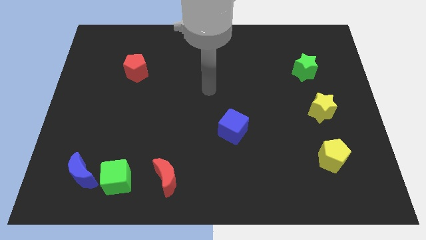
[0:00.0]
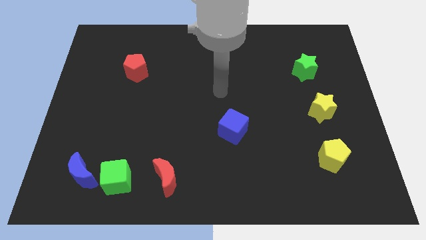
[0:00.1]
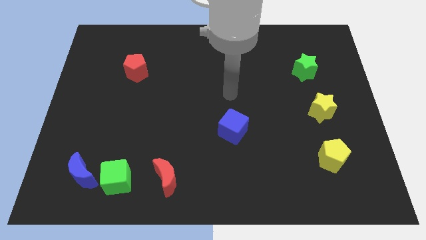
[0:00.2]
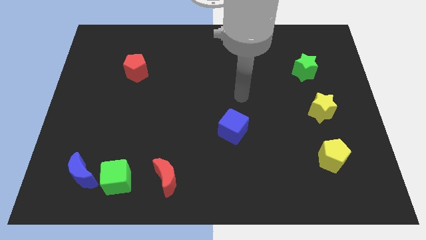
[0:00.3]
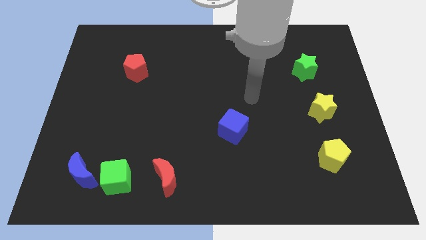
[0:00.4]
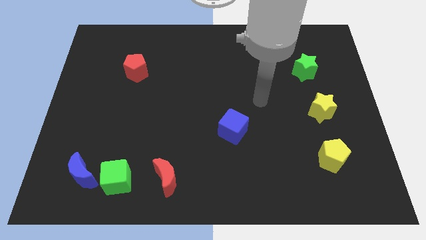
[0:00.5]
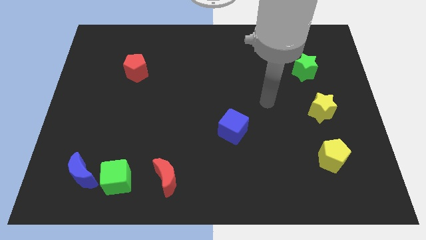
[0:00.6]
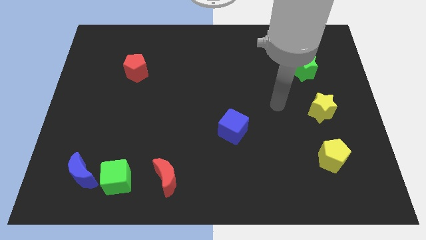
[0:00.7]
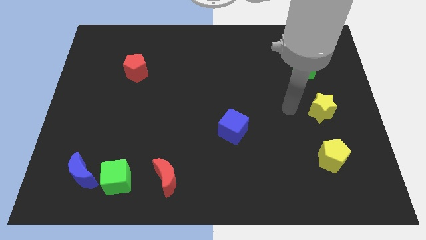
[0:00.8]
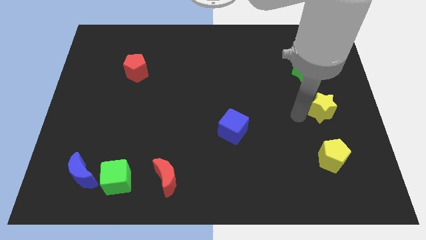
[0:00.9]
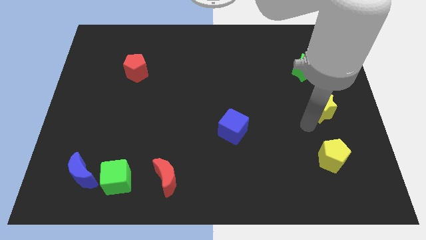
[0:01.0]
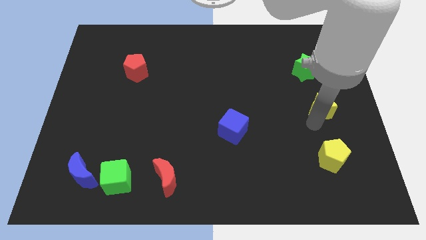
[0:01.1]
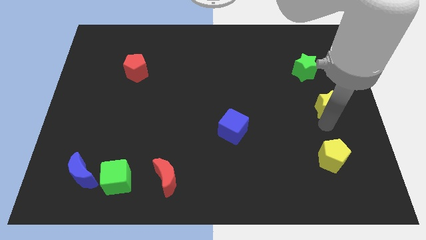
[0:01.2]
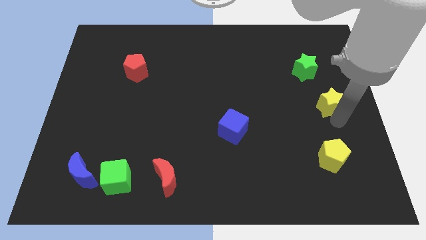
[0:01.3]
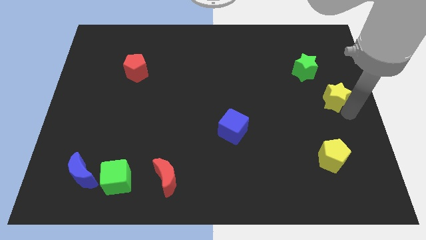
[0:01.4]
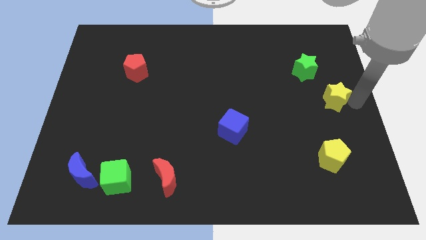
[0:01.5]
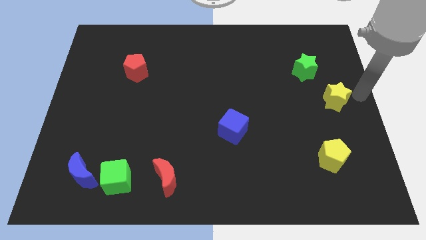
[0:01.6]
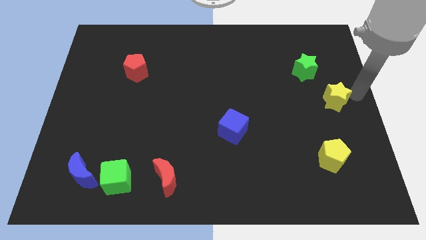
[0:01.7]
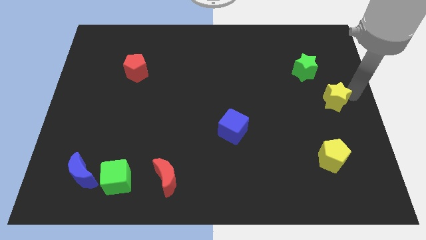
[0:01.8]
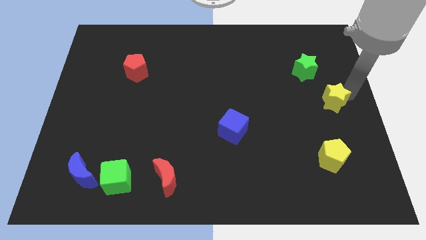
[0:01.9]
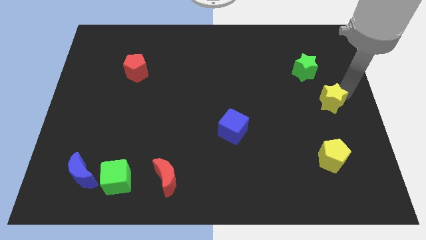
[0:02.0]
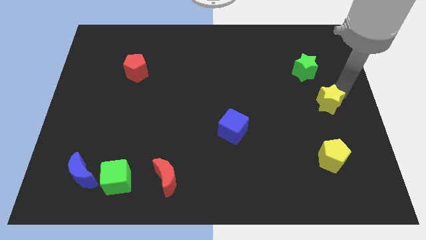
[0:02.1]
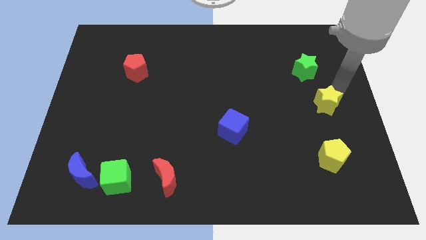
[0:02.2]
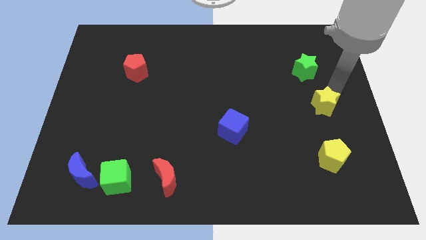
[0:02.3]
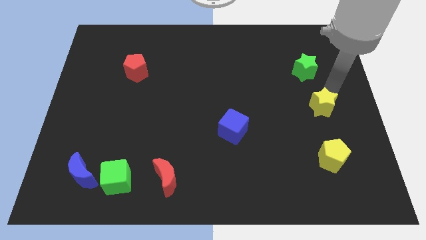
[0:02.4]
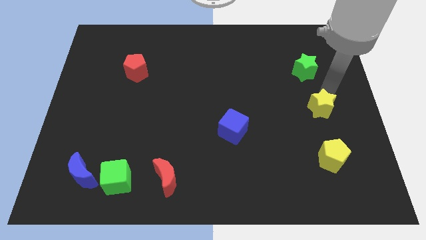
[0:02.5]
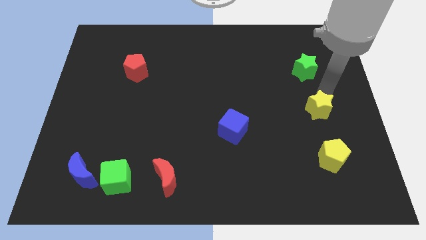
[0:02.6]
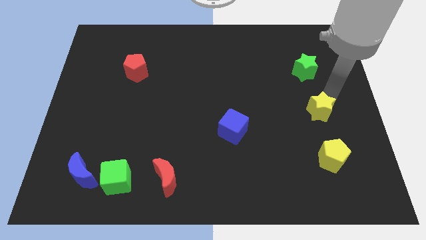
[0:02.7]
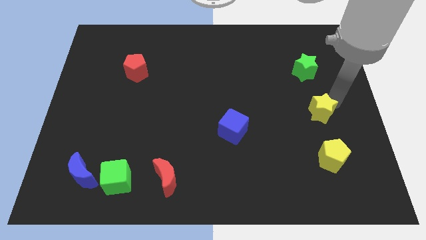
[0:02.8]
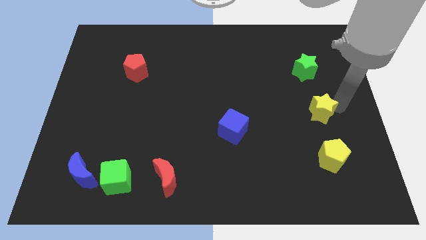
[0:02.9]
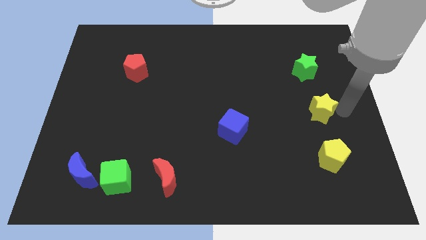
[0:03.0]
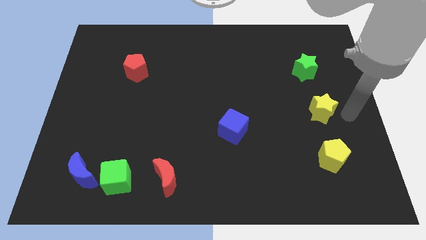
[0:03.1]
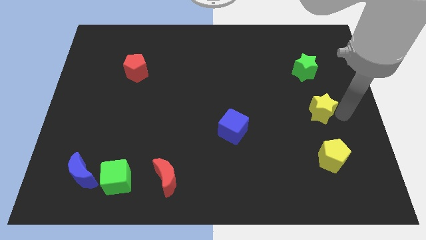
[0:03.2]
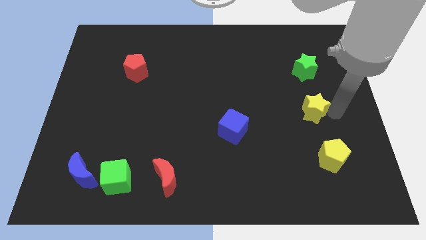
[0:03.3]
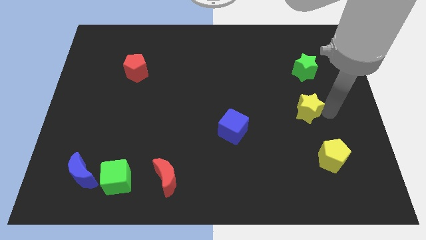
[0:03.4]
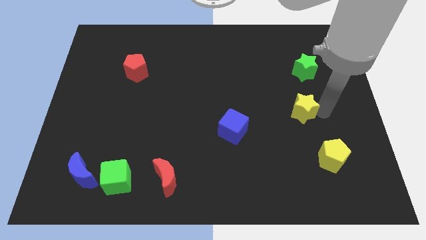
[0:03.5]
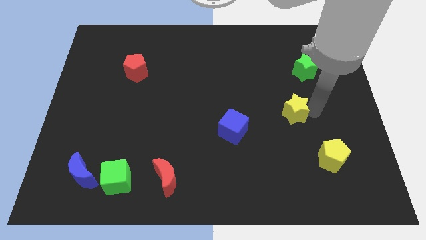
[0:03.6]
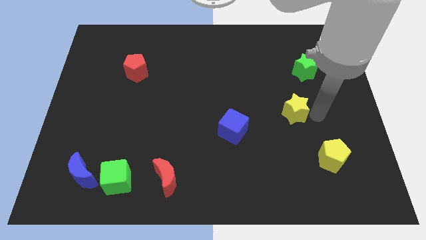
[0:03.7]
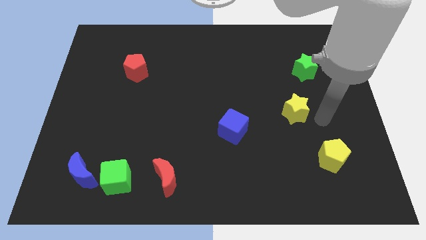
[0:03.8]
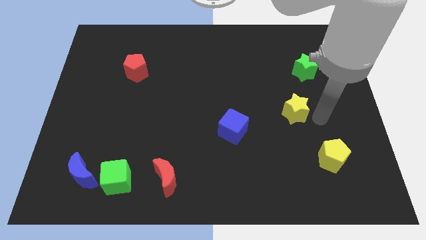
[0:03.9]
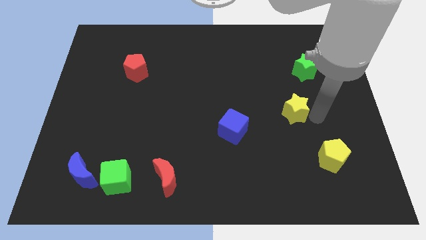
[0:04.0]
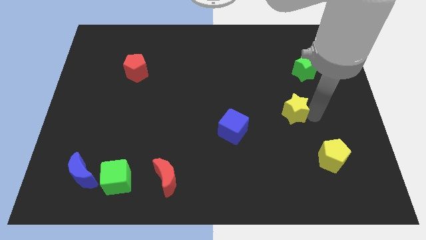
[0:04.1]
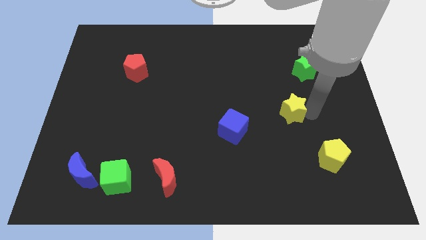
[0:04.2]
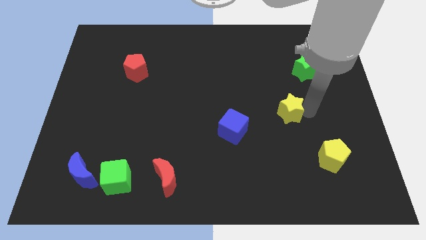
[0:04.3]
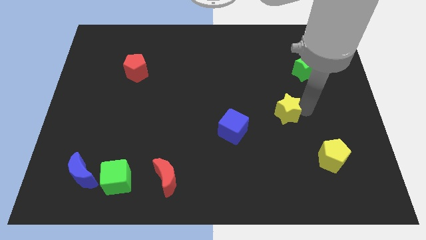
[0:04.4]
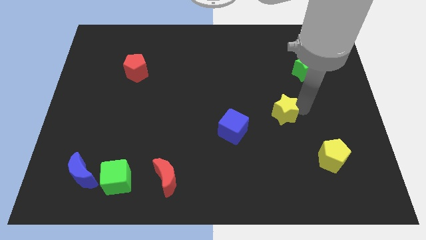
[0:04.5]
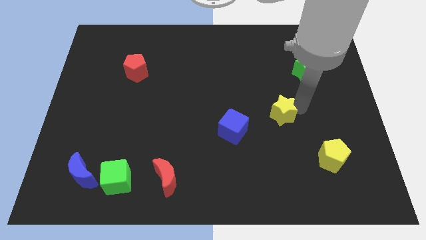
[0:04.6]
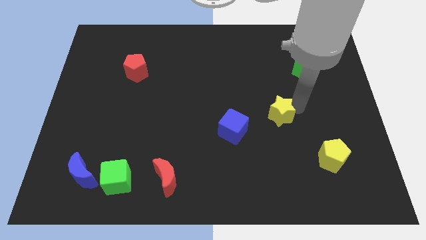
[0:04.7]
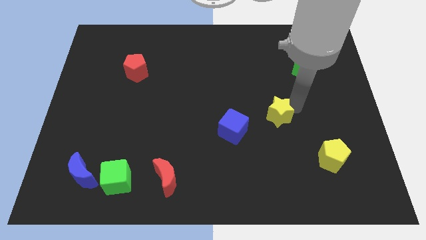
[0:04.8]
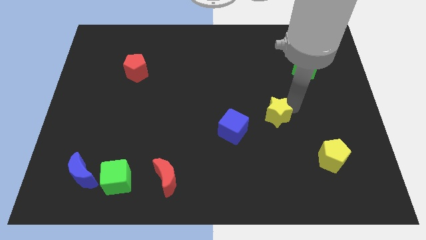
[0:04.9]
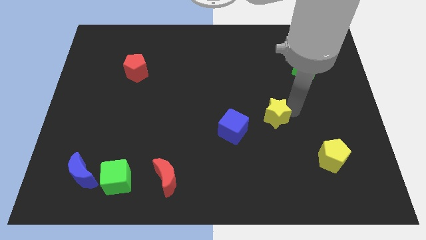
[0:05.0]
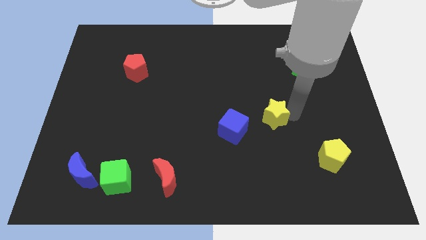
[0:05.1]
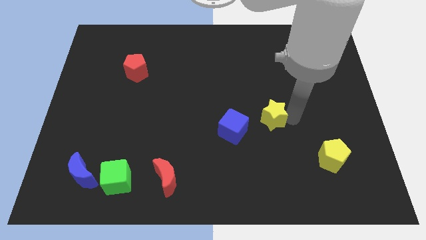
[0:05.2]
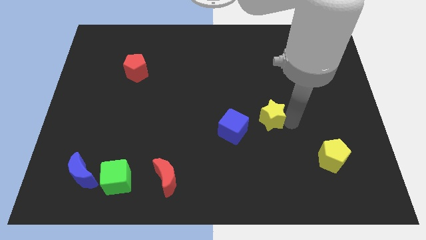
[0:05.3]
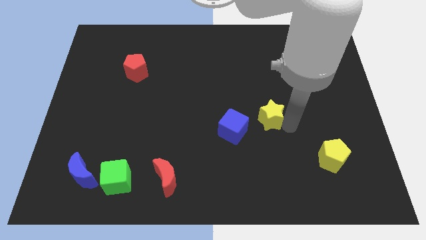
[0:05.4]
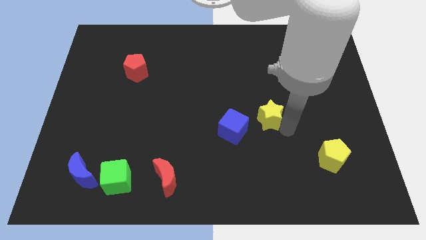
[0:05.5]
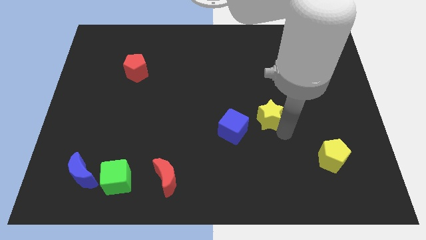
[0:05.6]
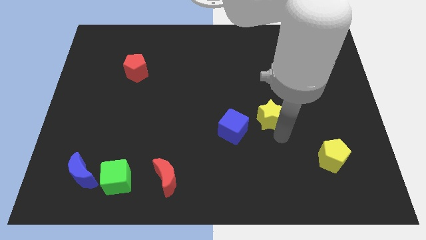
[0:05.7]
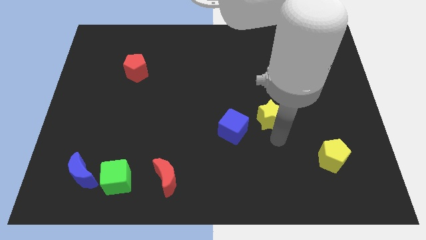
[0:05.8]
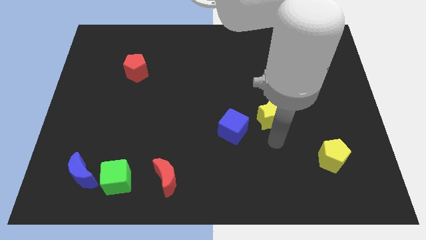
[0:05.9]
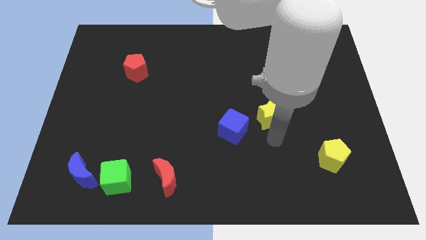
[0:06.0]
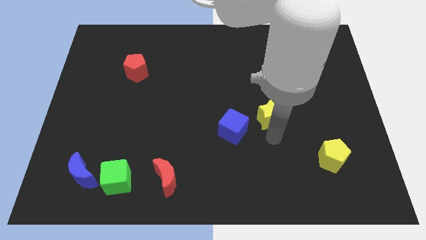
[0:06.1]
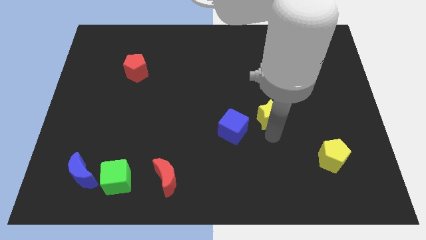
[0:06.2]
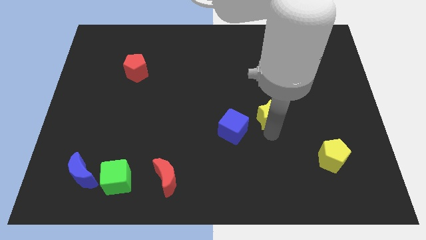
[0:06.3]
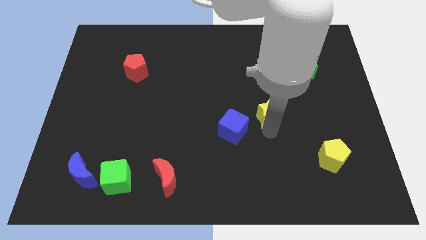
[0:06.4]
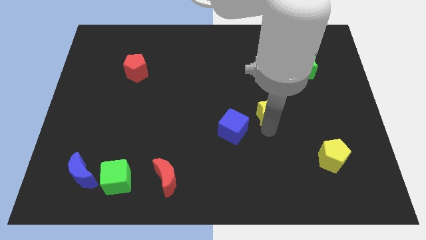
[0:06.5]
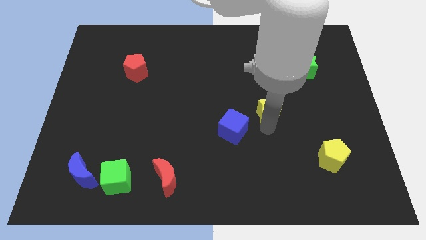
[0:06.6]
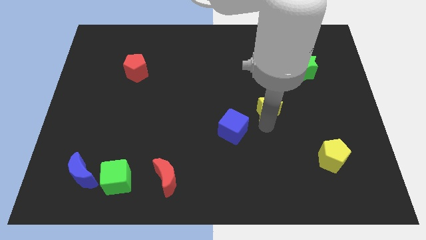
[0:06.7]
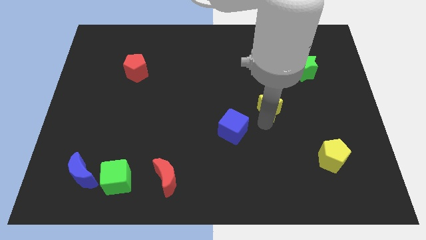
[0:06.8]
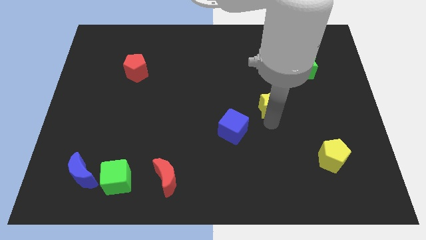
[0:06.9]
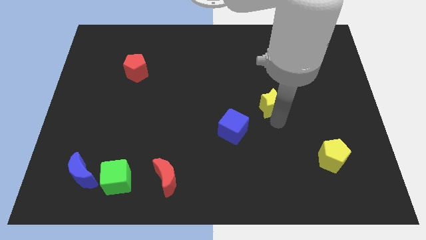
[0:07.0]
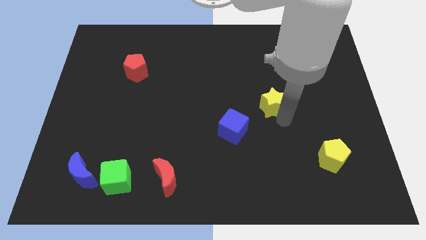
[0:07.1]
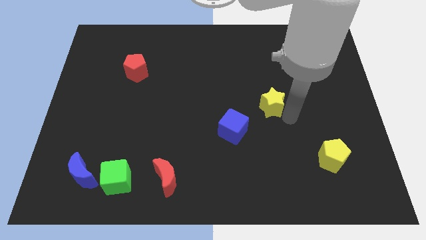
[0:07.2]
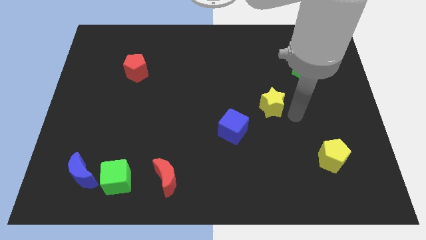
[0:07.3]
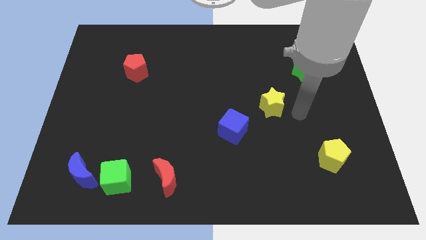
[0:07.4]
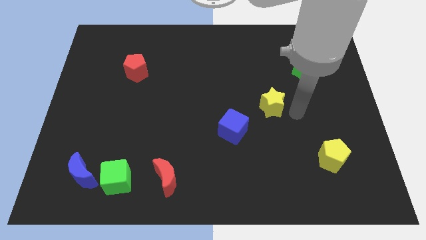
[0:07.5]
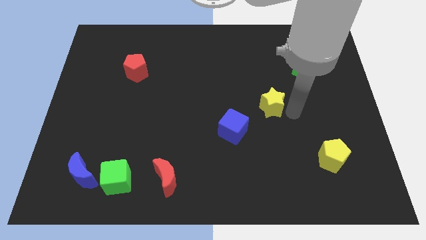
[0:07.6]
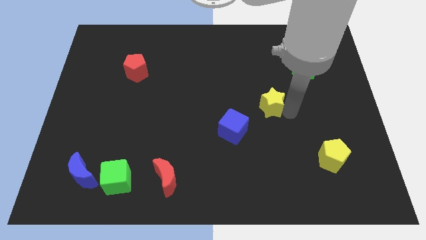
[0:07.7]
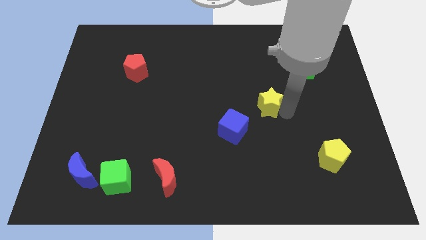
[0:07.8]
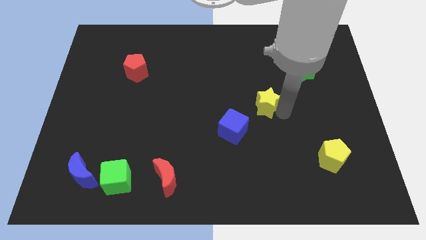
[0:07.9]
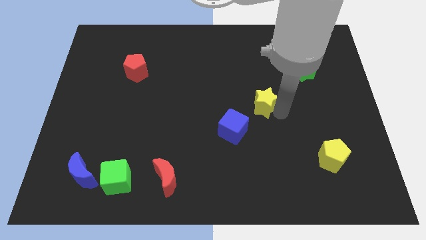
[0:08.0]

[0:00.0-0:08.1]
move the yellow star to the center of the board
